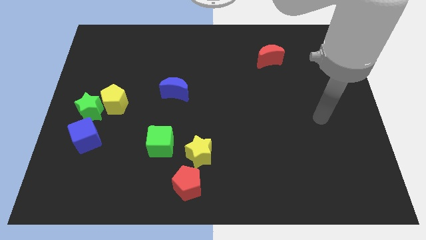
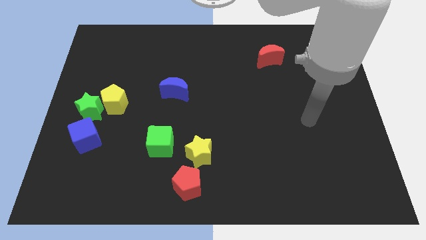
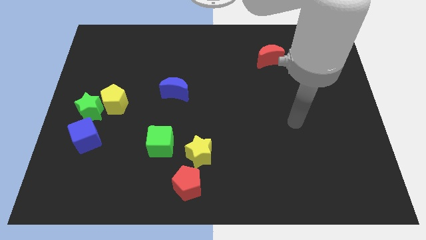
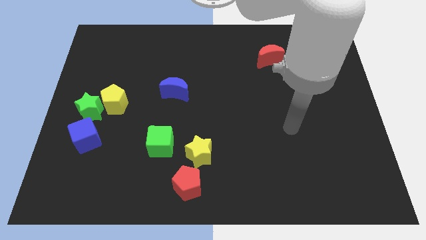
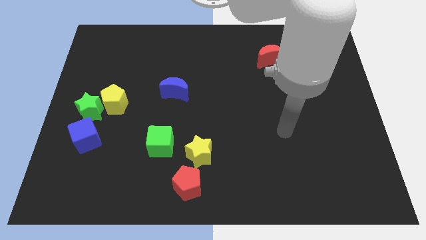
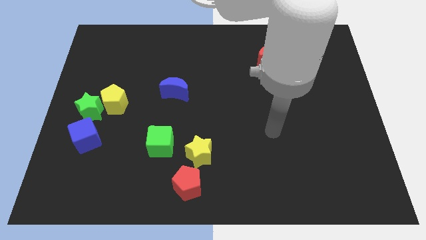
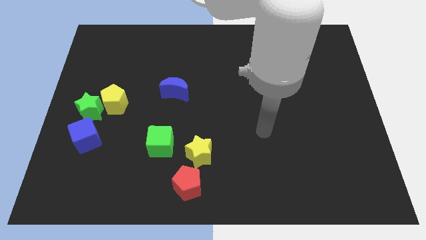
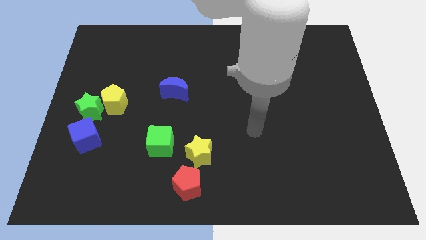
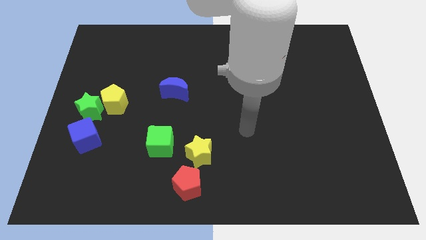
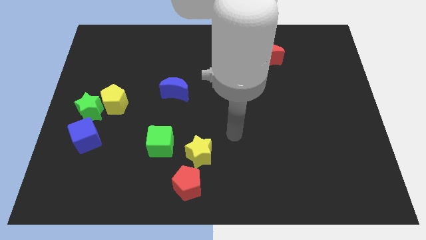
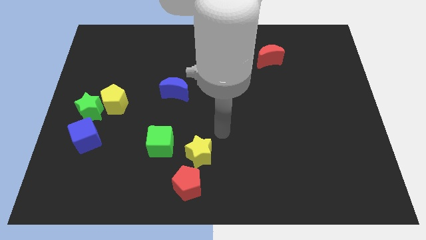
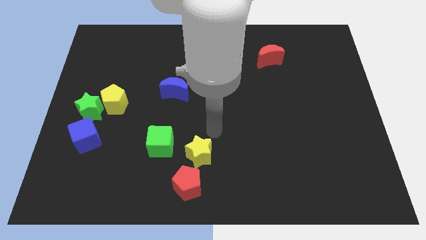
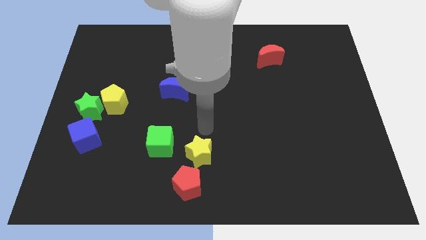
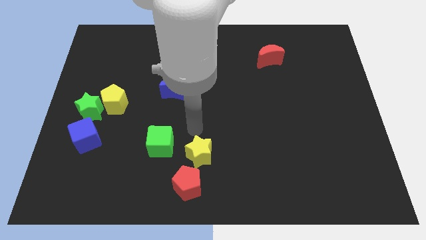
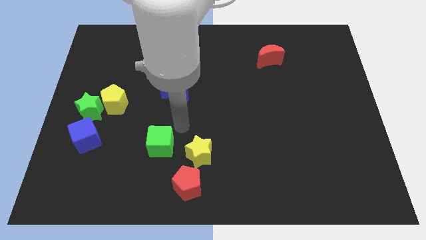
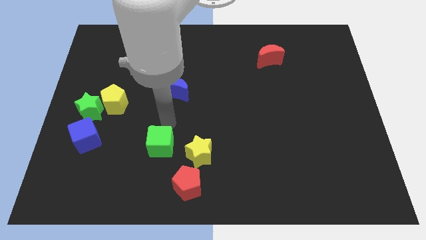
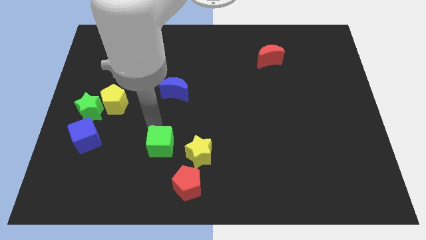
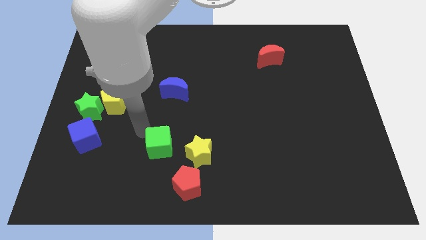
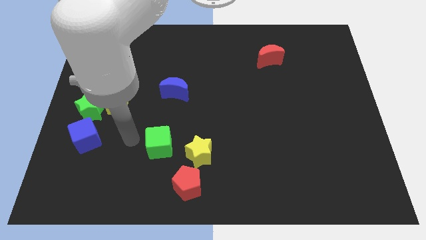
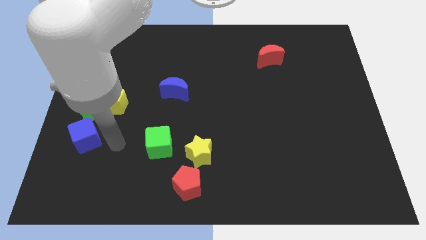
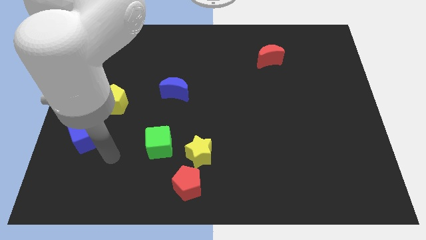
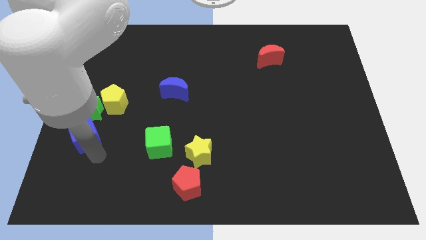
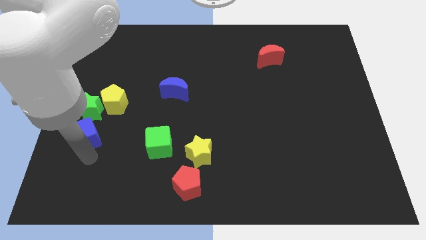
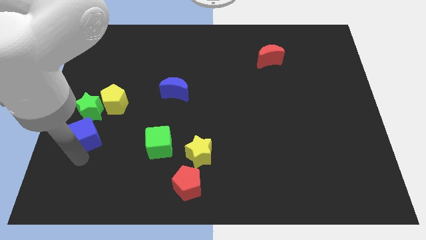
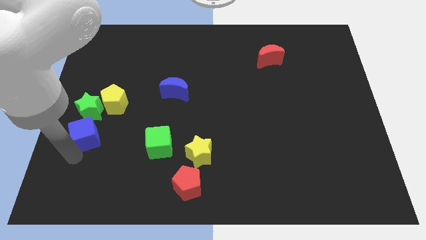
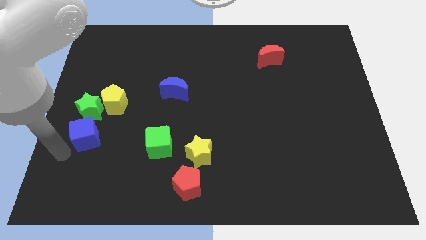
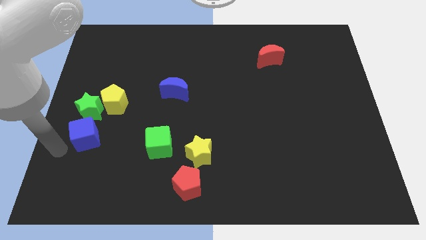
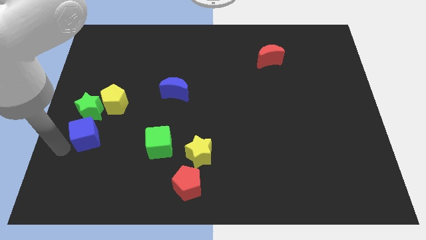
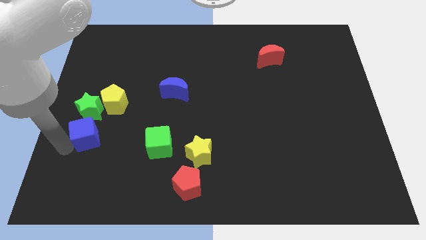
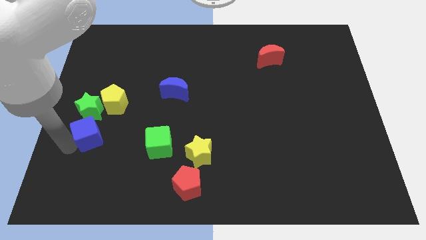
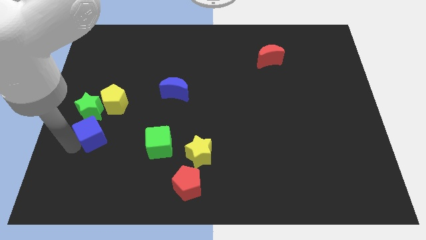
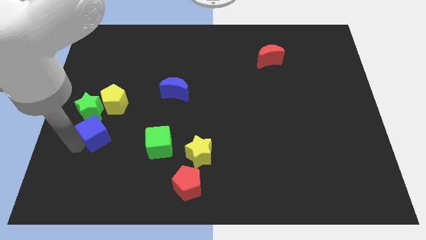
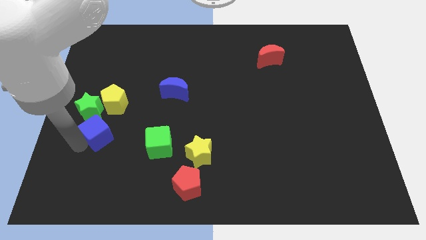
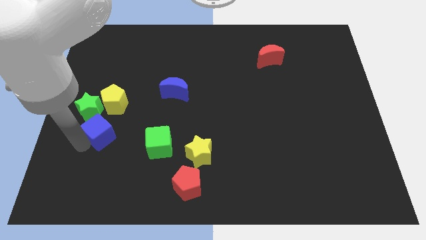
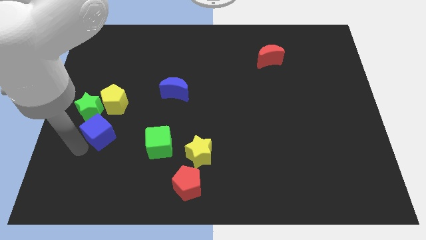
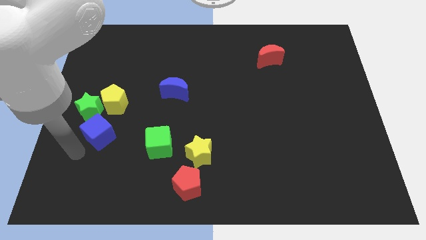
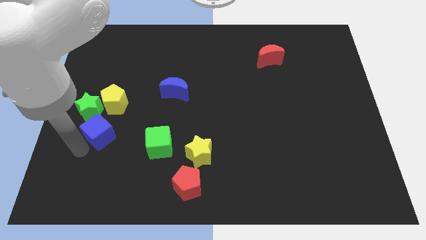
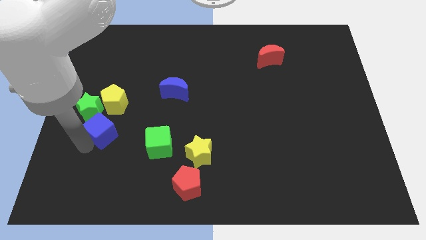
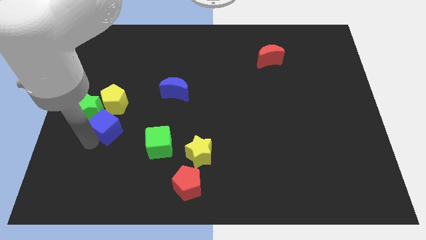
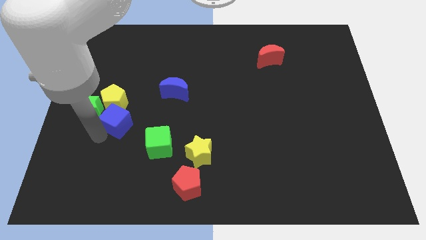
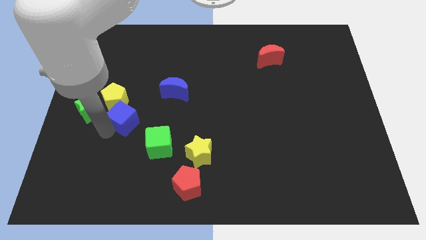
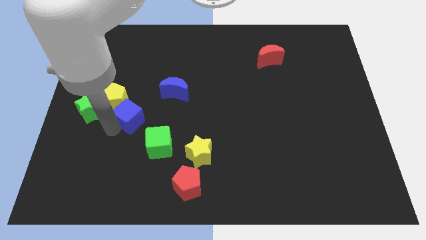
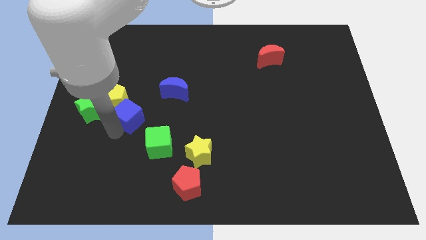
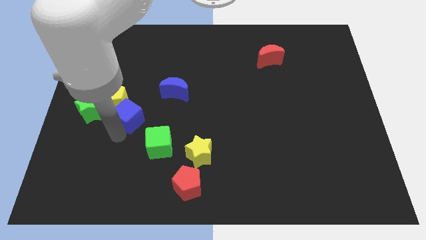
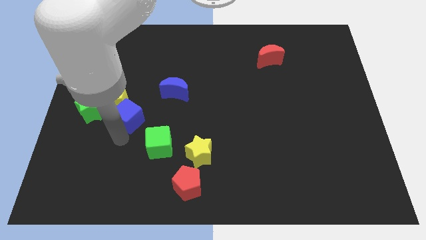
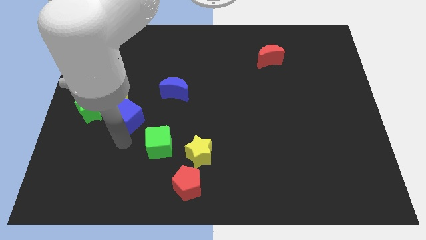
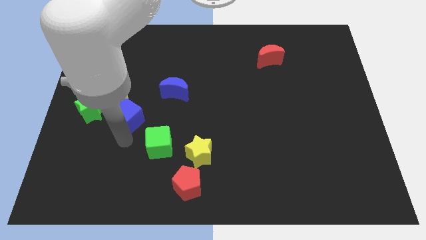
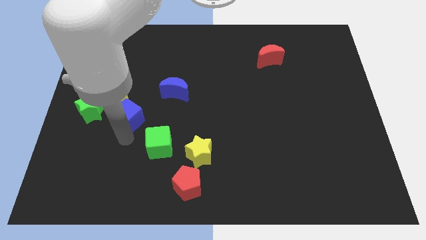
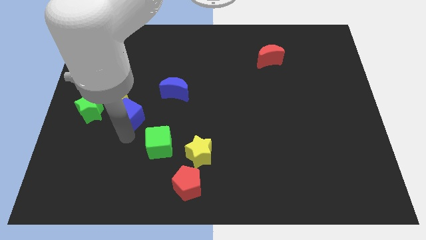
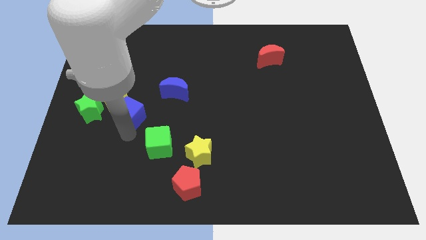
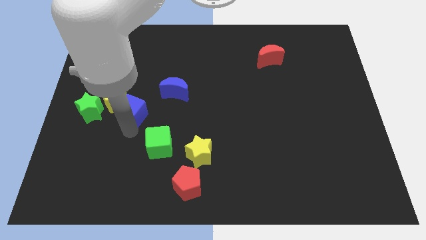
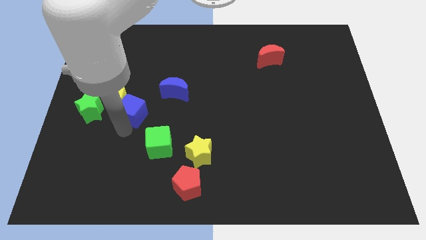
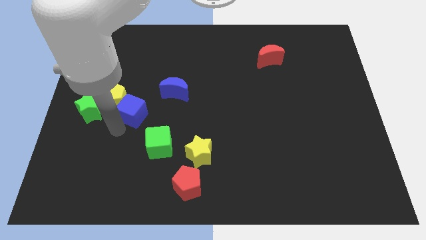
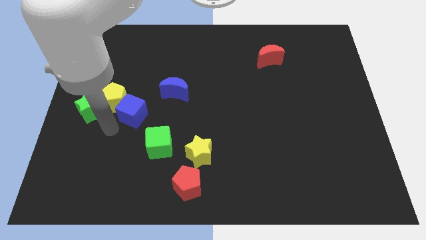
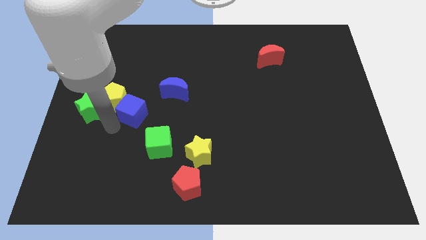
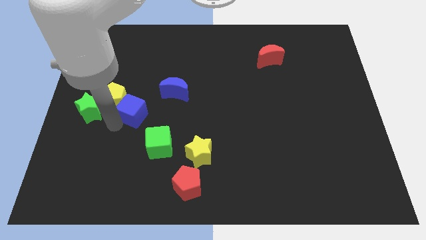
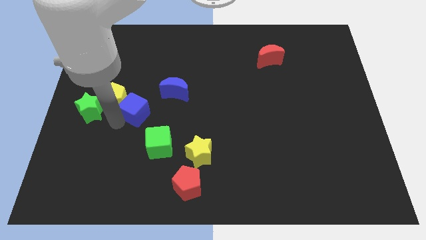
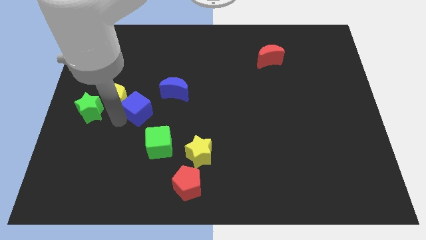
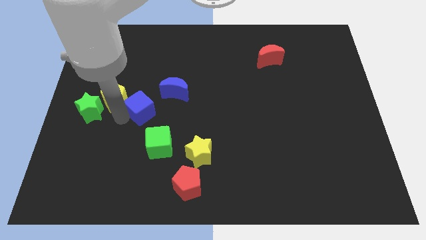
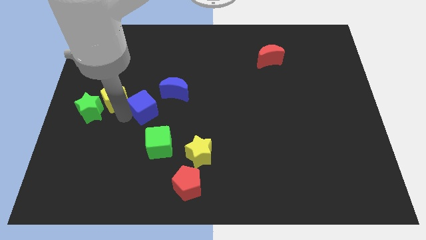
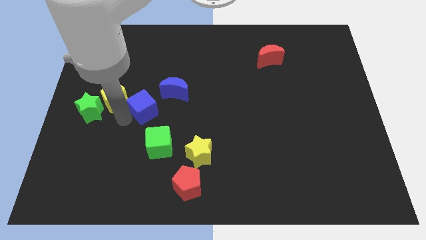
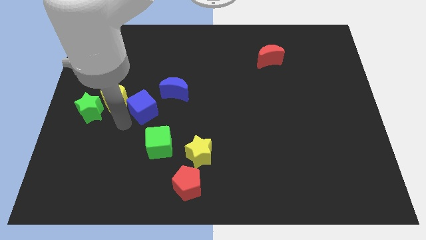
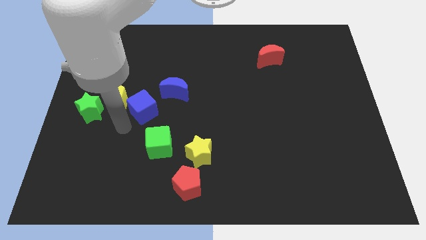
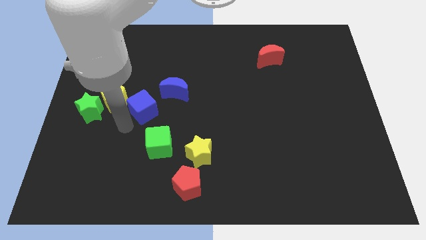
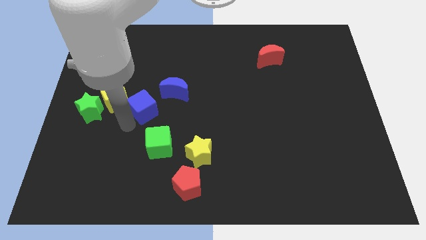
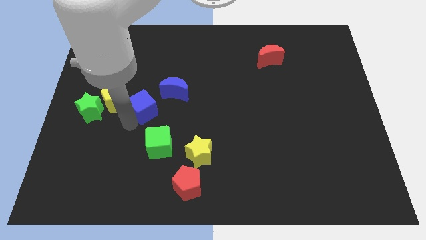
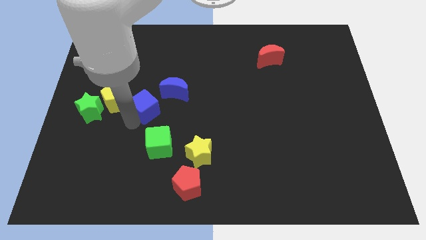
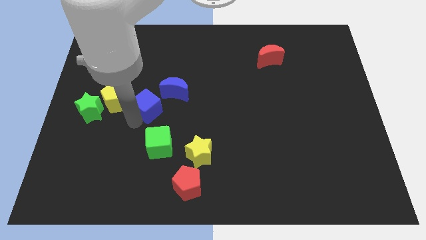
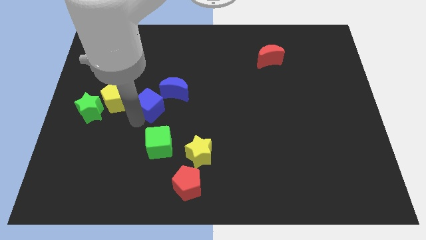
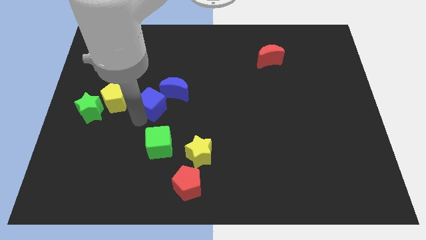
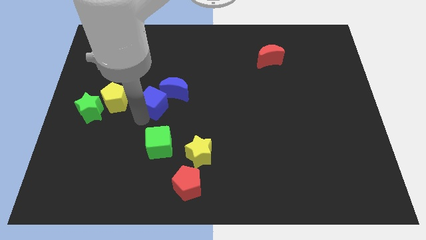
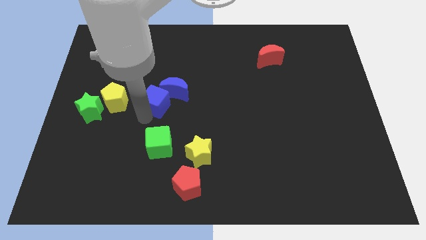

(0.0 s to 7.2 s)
slide the blue cube to the blue moon

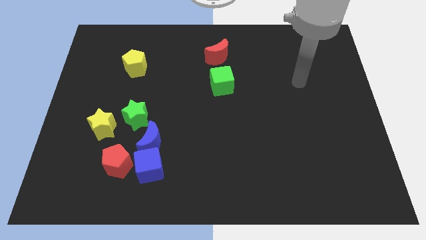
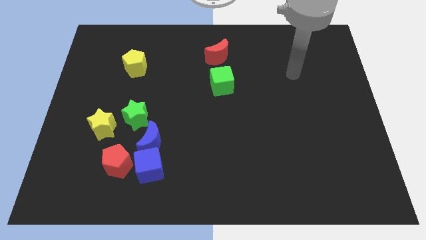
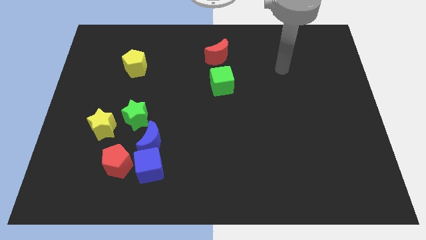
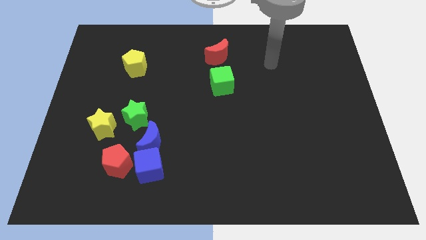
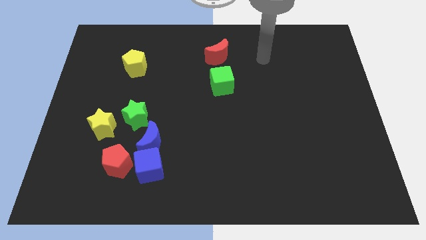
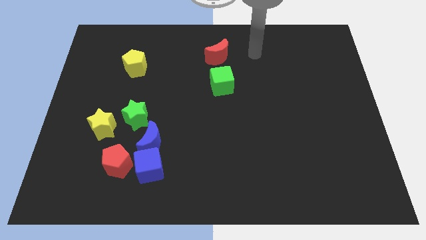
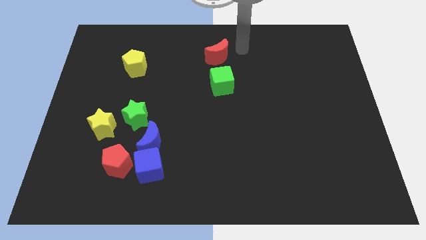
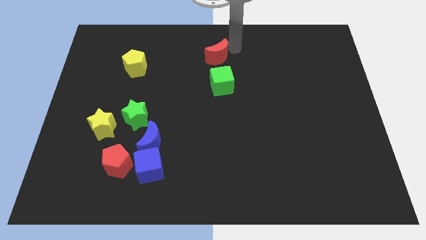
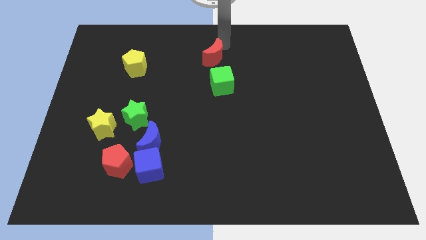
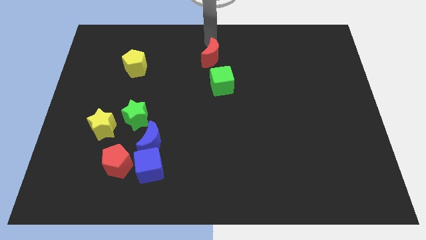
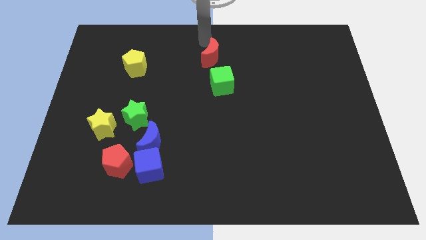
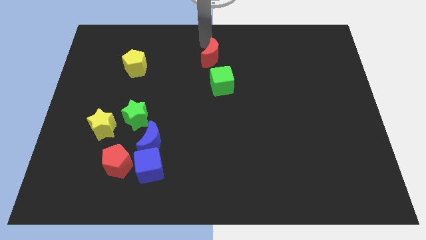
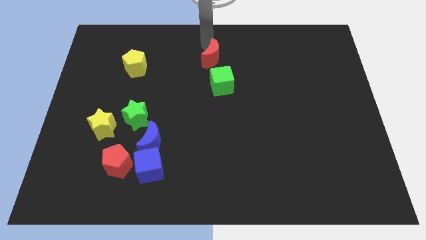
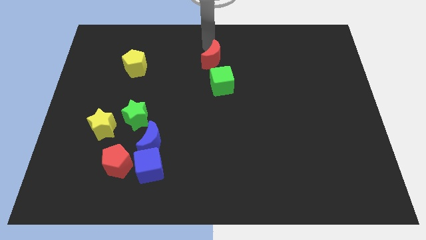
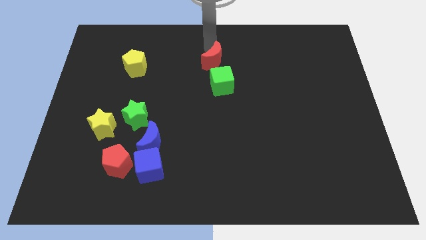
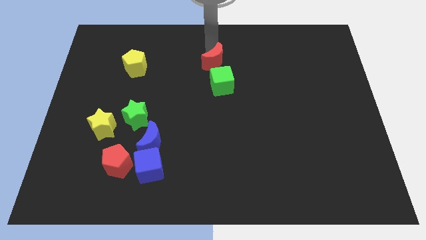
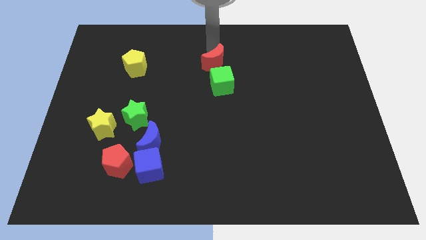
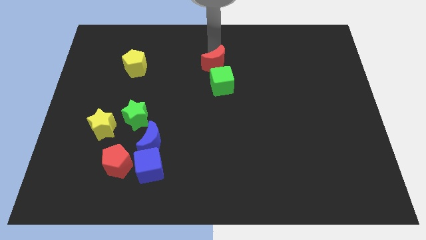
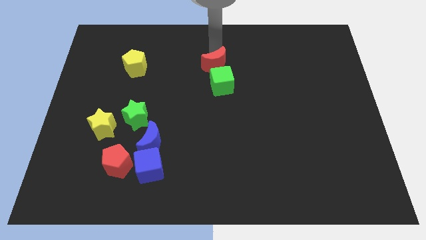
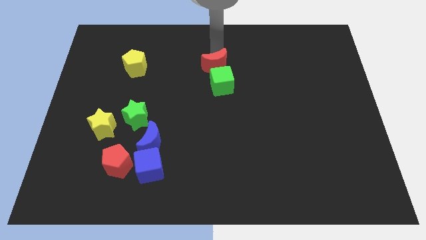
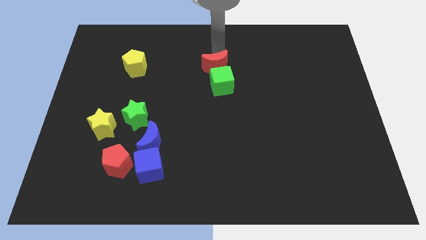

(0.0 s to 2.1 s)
slide the red moon close to the green cube
